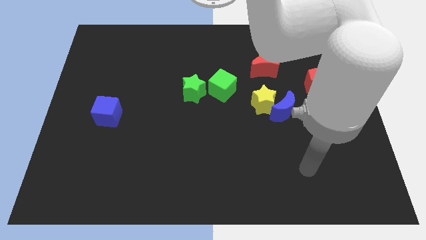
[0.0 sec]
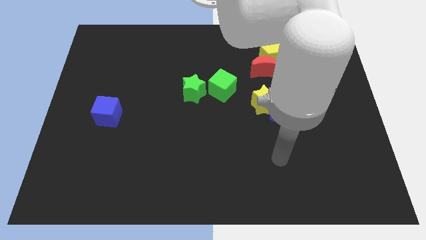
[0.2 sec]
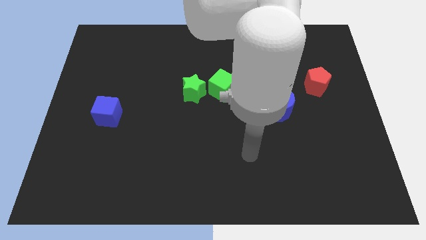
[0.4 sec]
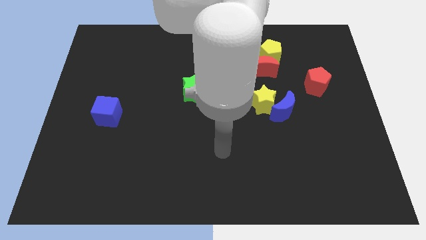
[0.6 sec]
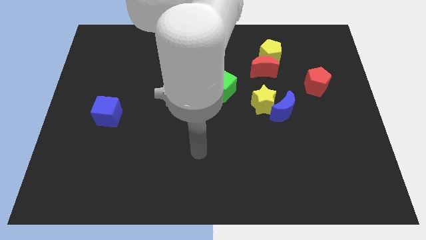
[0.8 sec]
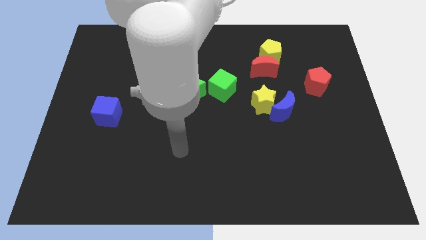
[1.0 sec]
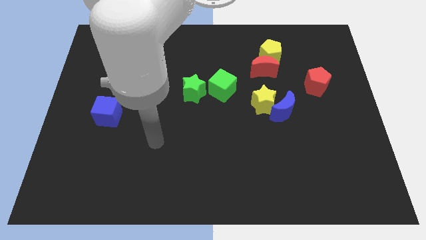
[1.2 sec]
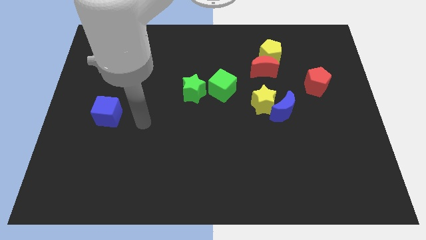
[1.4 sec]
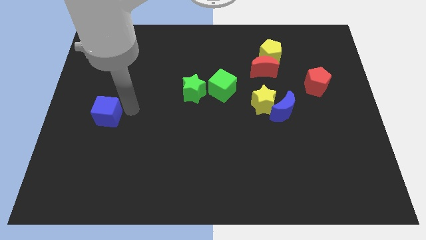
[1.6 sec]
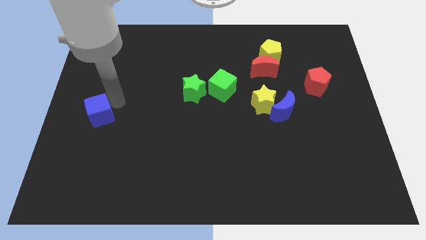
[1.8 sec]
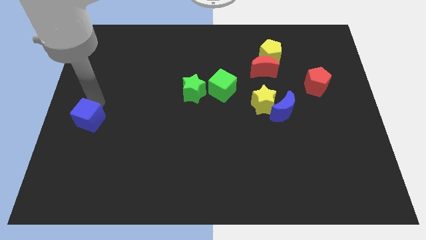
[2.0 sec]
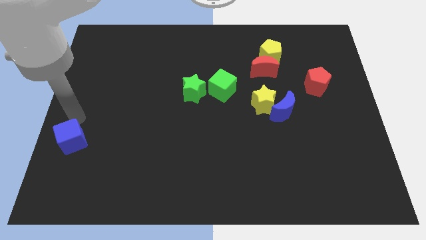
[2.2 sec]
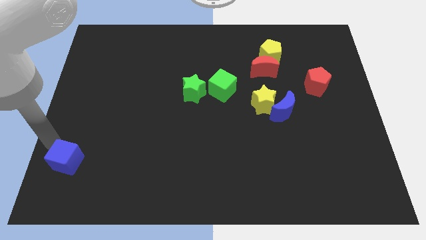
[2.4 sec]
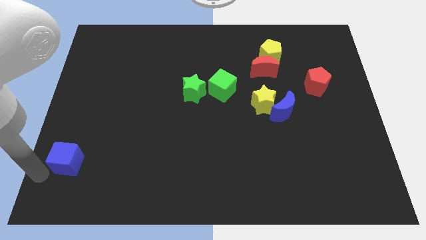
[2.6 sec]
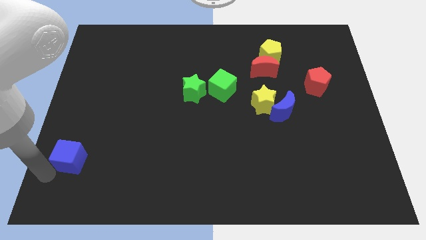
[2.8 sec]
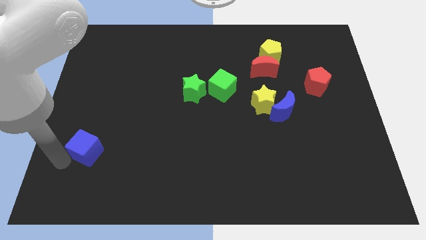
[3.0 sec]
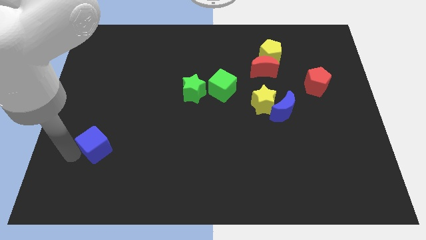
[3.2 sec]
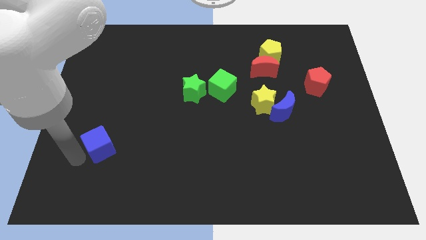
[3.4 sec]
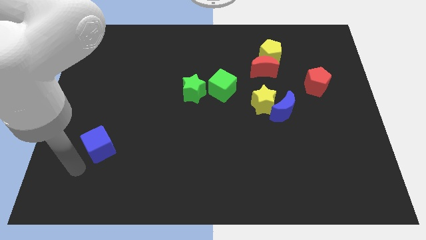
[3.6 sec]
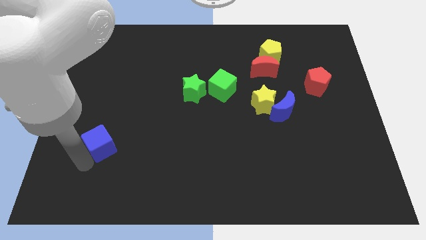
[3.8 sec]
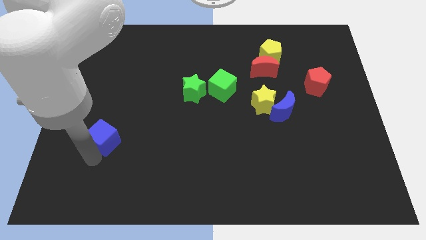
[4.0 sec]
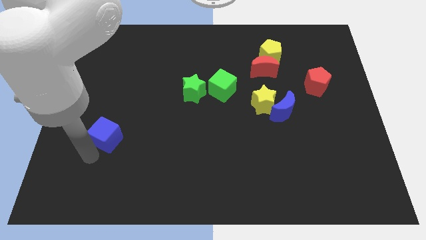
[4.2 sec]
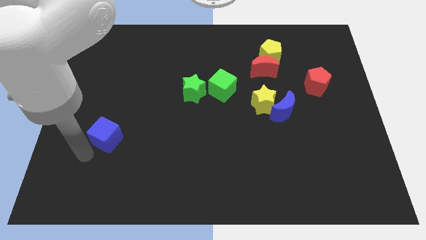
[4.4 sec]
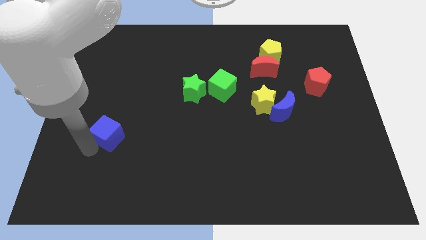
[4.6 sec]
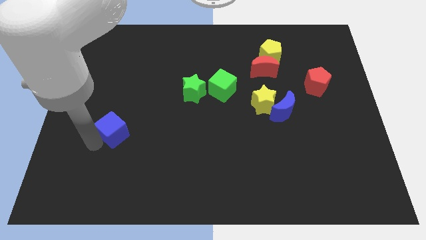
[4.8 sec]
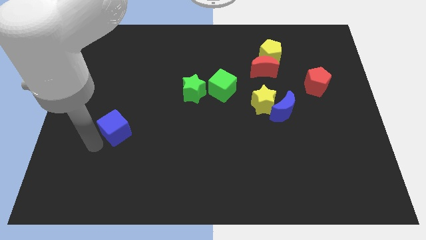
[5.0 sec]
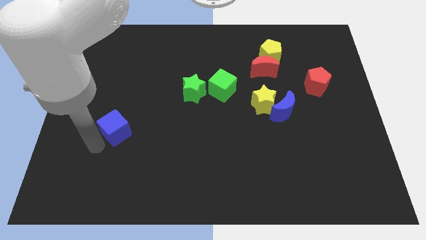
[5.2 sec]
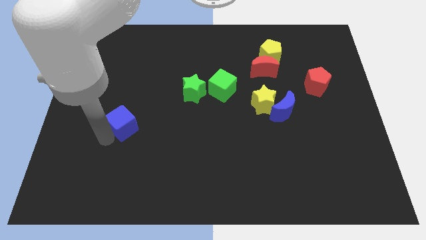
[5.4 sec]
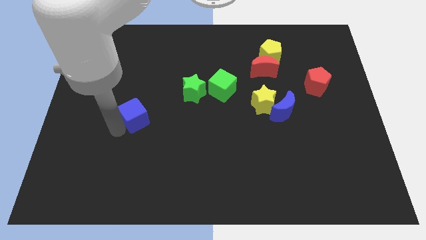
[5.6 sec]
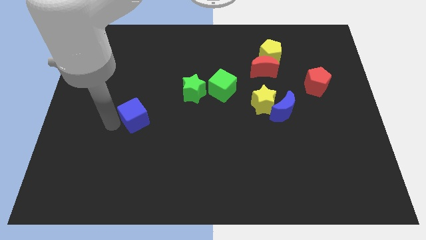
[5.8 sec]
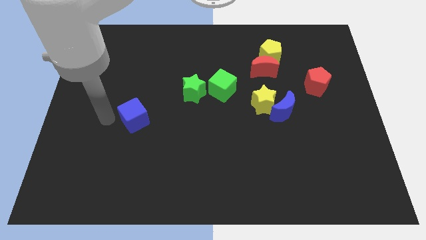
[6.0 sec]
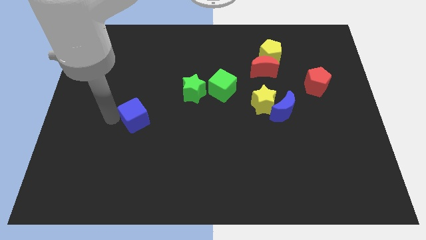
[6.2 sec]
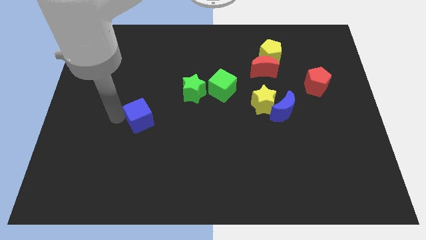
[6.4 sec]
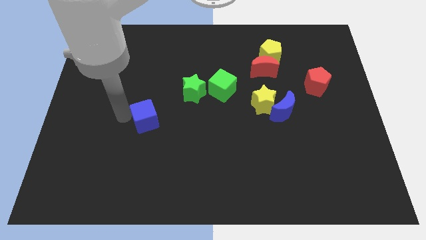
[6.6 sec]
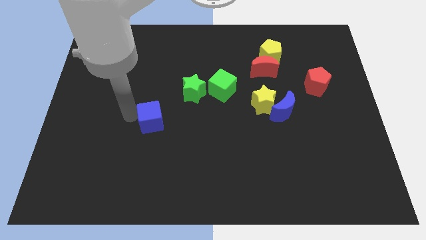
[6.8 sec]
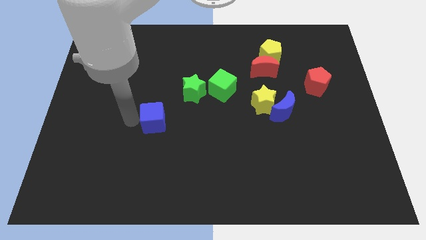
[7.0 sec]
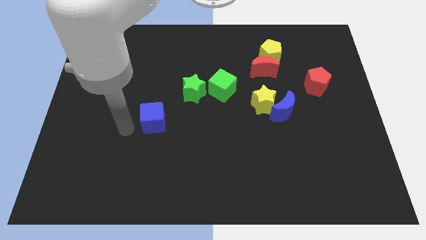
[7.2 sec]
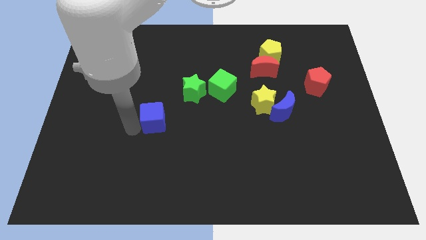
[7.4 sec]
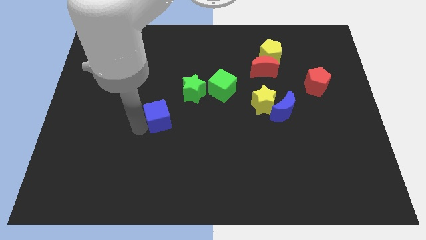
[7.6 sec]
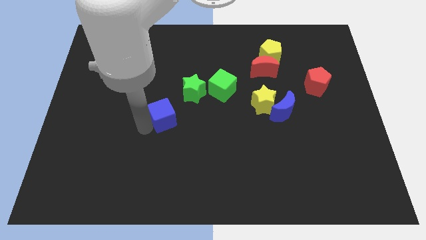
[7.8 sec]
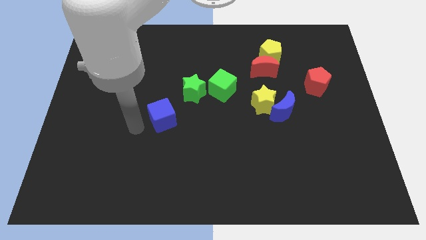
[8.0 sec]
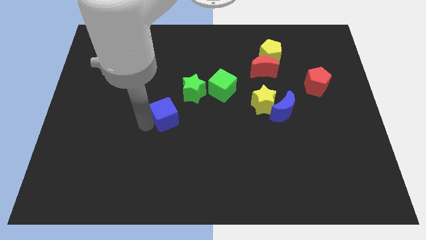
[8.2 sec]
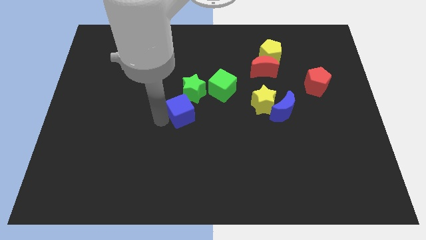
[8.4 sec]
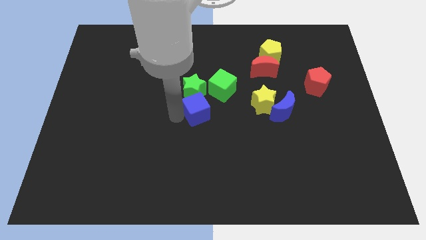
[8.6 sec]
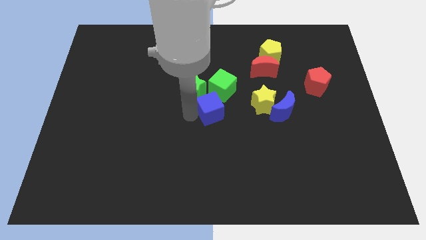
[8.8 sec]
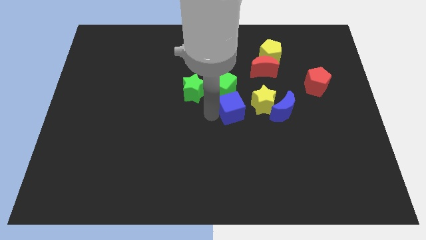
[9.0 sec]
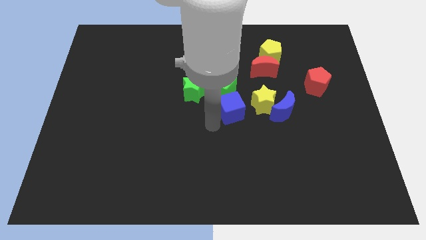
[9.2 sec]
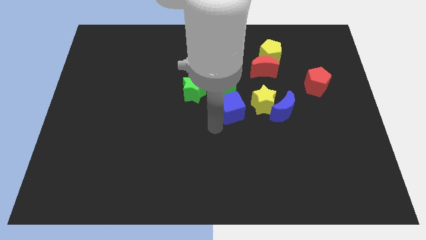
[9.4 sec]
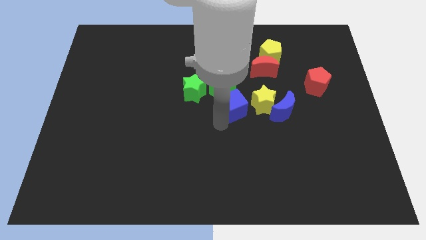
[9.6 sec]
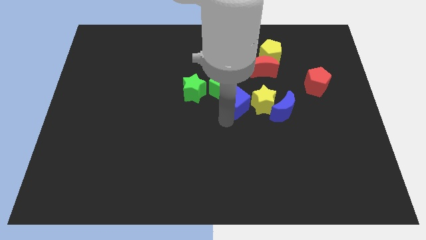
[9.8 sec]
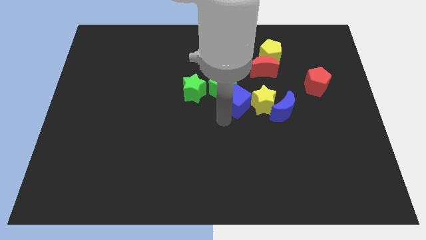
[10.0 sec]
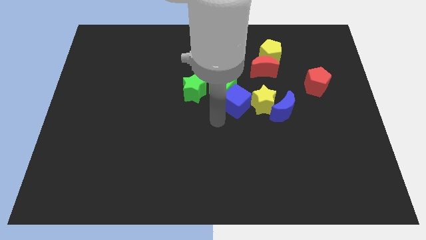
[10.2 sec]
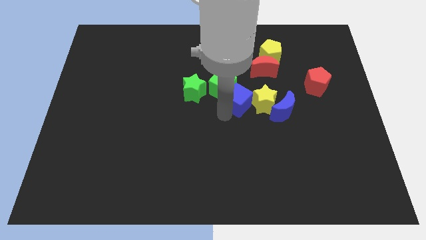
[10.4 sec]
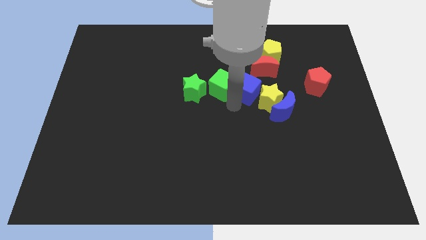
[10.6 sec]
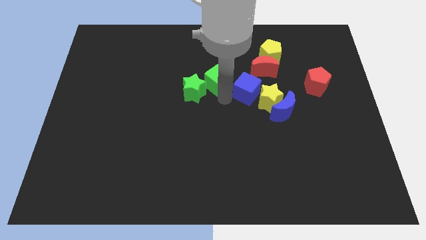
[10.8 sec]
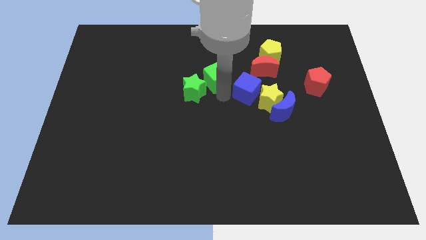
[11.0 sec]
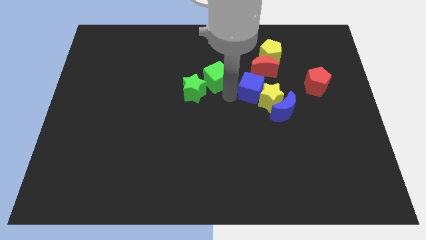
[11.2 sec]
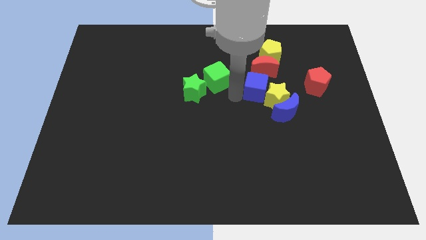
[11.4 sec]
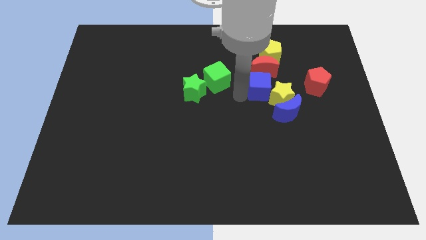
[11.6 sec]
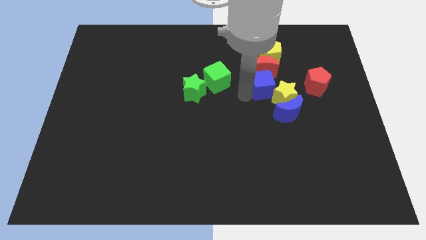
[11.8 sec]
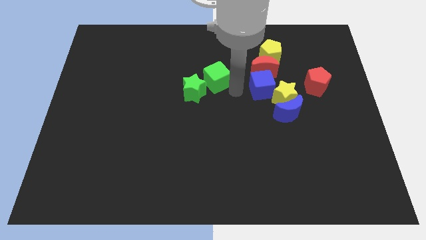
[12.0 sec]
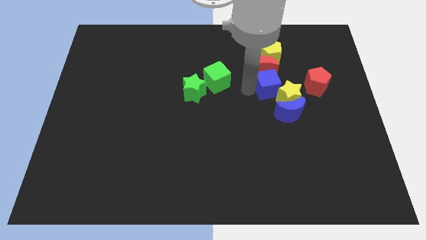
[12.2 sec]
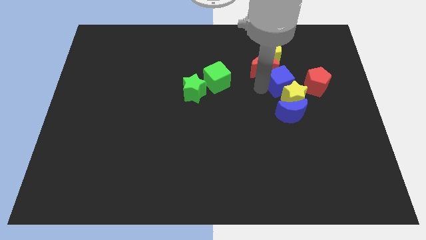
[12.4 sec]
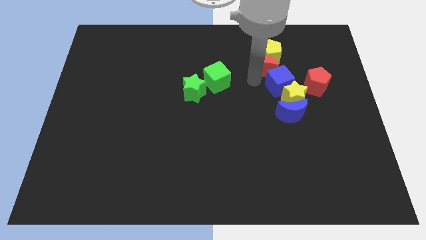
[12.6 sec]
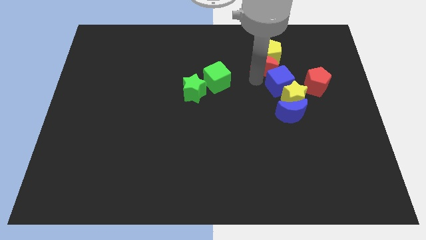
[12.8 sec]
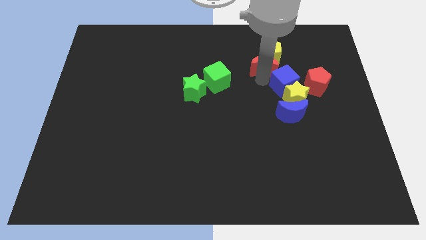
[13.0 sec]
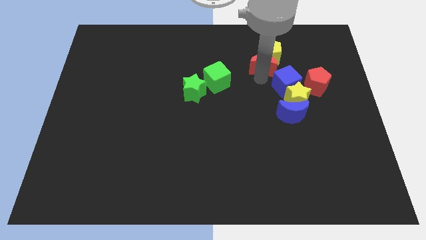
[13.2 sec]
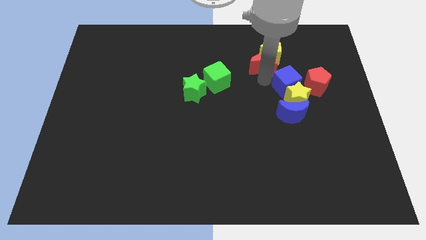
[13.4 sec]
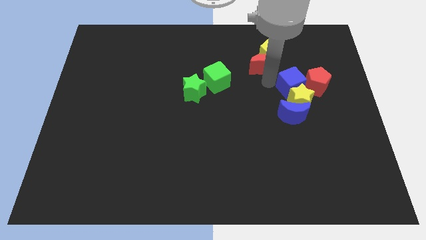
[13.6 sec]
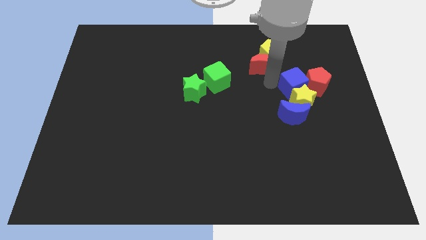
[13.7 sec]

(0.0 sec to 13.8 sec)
slide the blue cube close to the red pentagon
